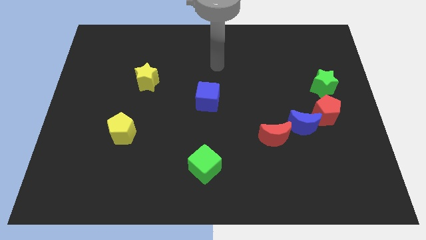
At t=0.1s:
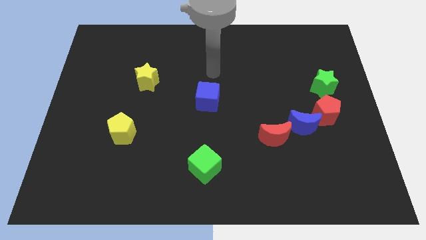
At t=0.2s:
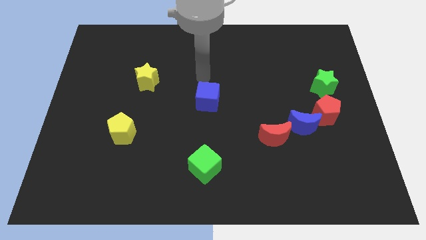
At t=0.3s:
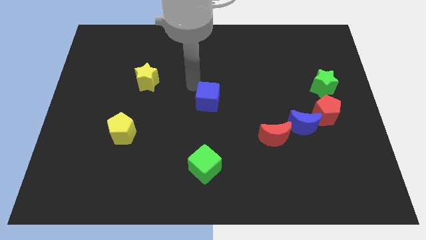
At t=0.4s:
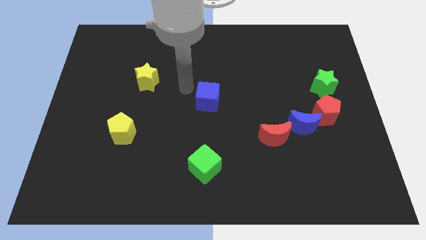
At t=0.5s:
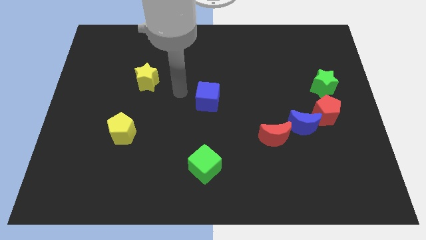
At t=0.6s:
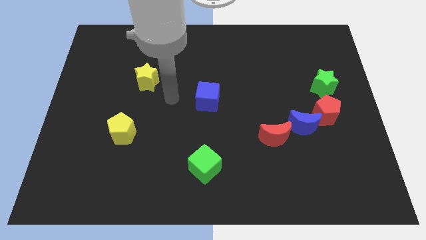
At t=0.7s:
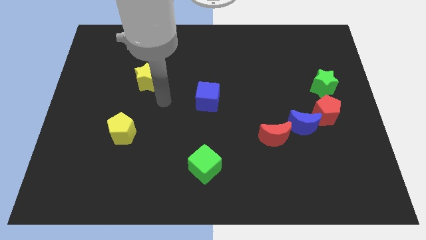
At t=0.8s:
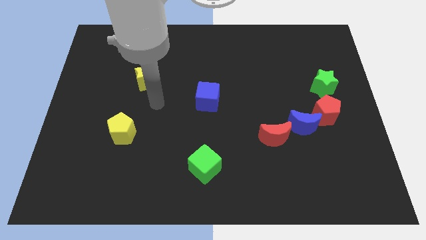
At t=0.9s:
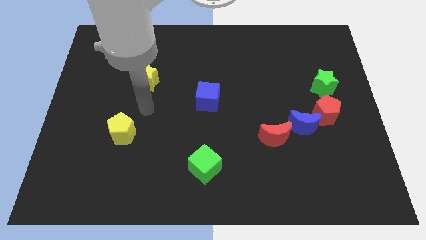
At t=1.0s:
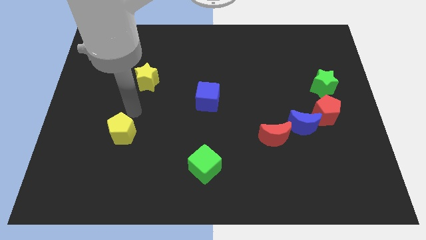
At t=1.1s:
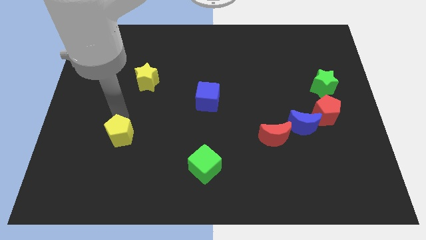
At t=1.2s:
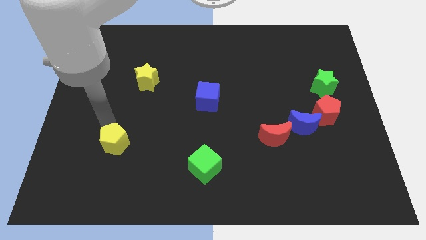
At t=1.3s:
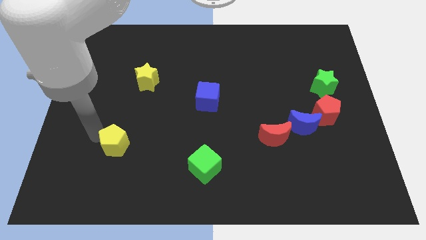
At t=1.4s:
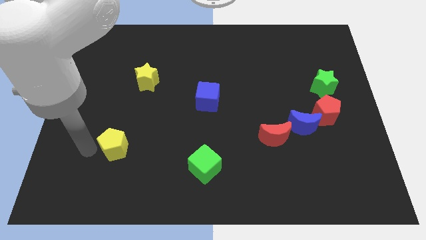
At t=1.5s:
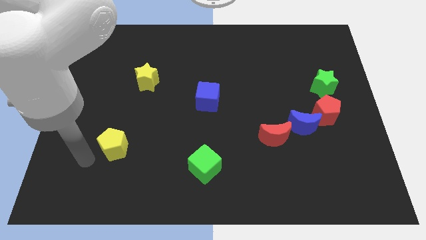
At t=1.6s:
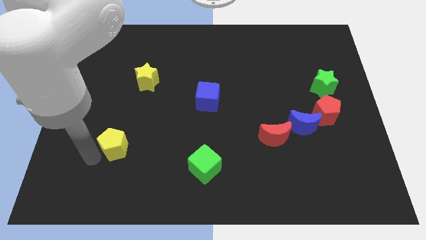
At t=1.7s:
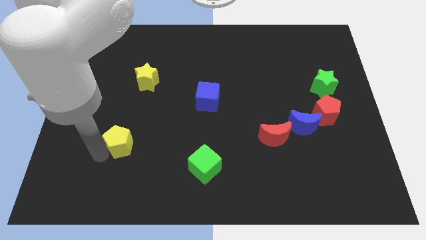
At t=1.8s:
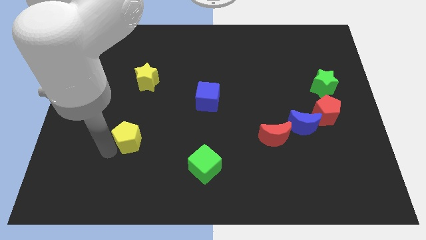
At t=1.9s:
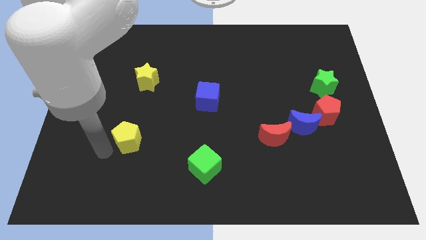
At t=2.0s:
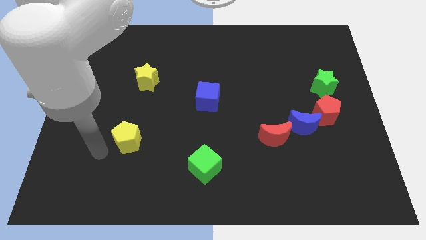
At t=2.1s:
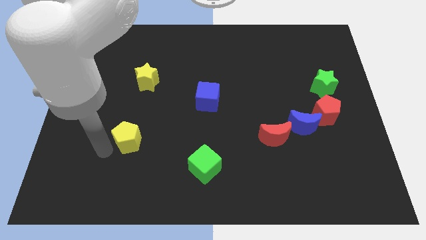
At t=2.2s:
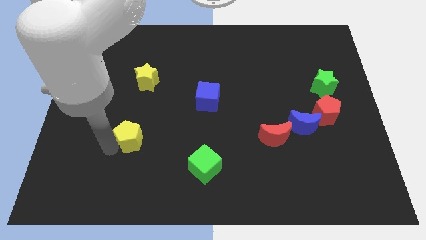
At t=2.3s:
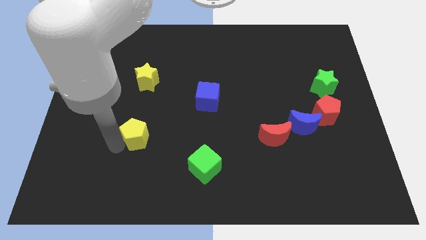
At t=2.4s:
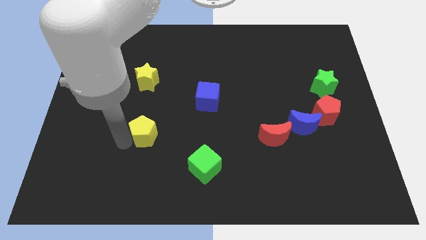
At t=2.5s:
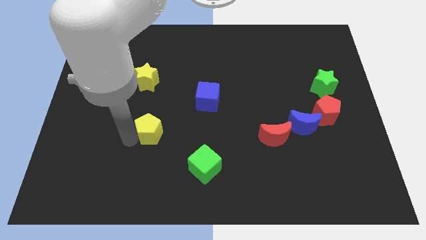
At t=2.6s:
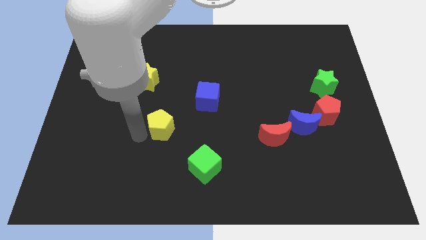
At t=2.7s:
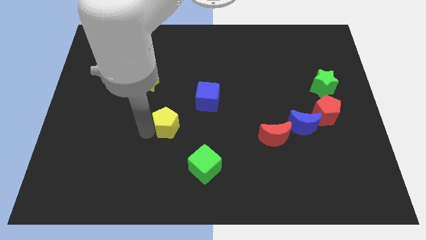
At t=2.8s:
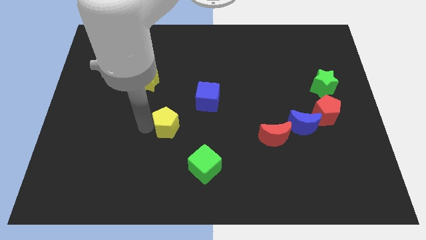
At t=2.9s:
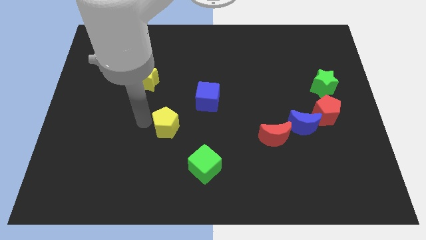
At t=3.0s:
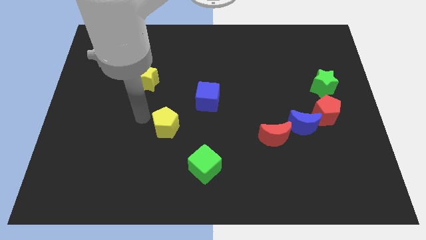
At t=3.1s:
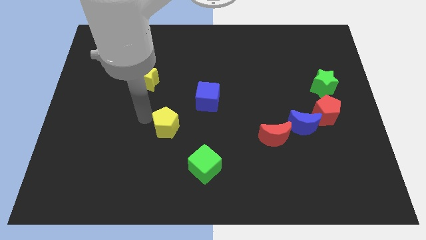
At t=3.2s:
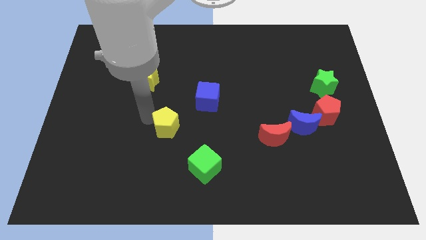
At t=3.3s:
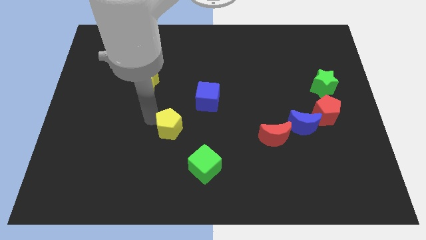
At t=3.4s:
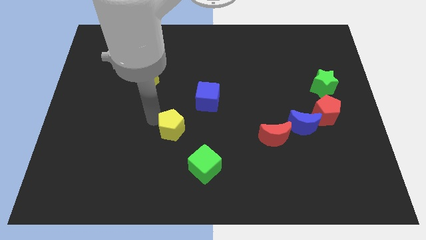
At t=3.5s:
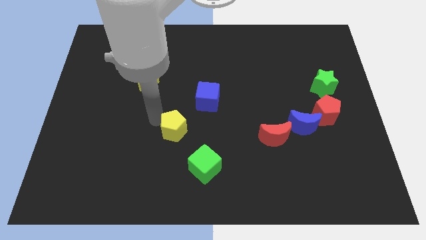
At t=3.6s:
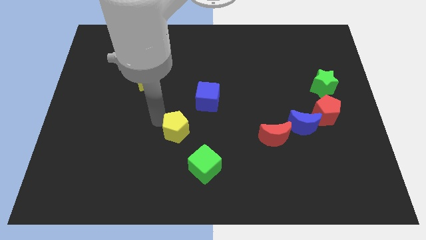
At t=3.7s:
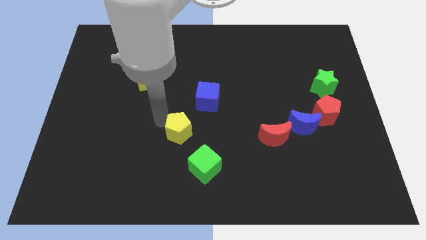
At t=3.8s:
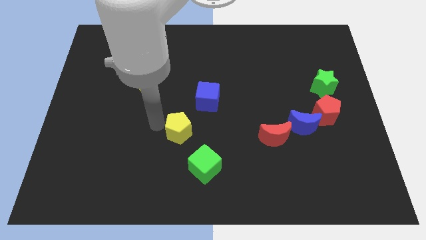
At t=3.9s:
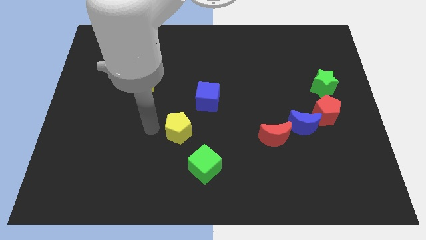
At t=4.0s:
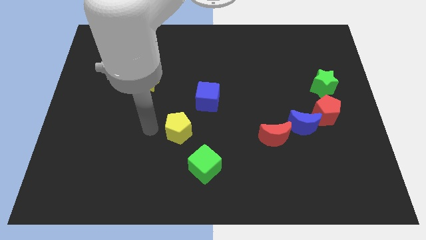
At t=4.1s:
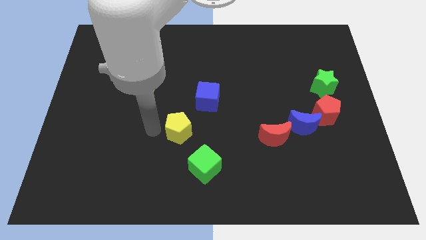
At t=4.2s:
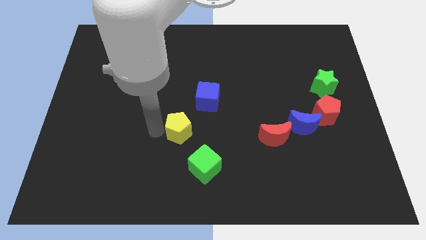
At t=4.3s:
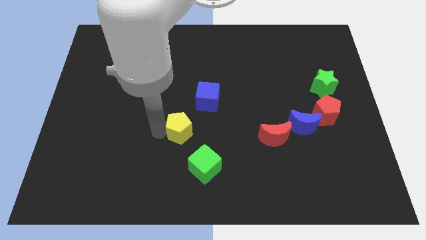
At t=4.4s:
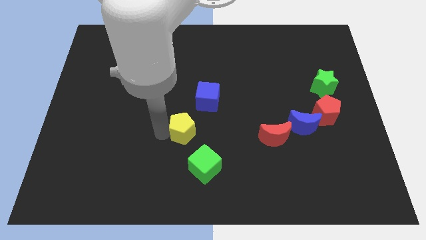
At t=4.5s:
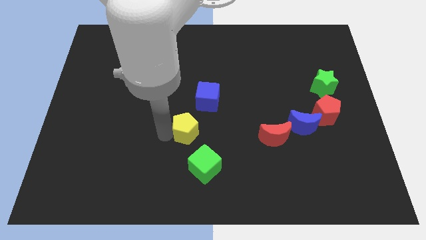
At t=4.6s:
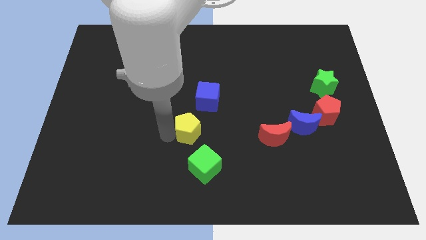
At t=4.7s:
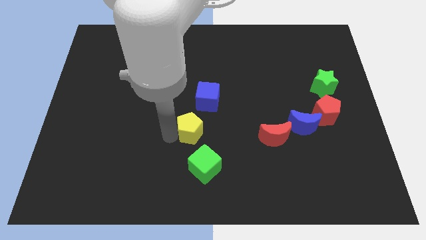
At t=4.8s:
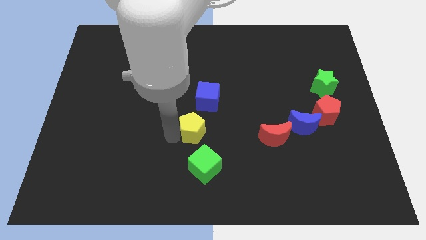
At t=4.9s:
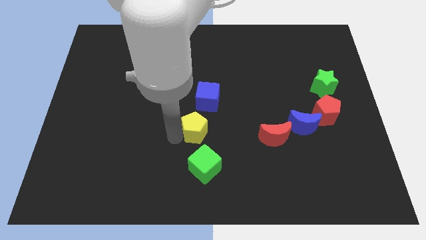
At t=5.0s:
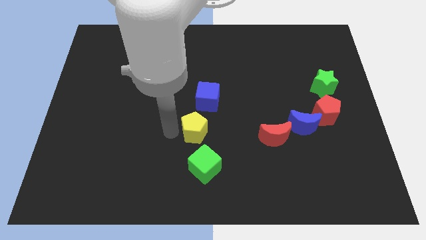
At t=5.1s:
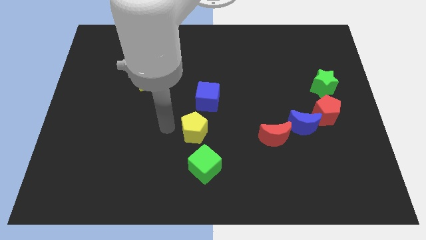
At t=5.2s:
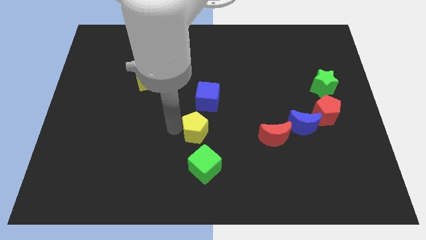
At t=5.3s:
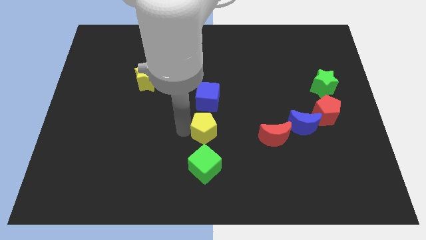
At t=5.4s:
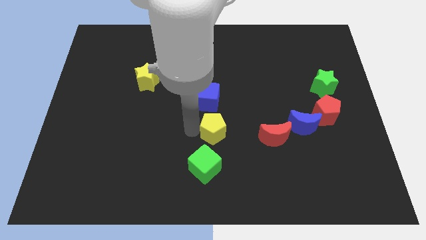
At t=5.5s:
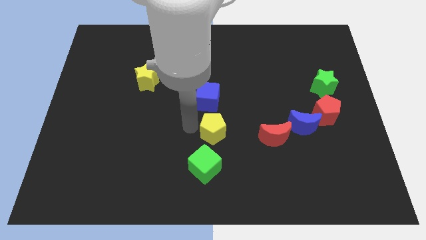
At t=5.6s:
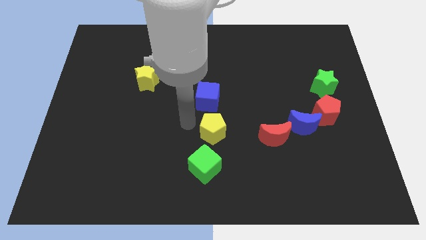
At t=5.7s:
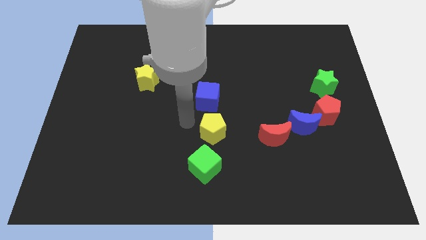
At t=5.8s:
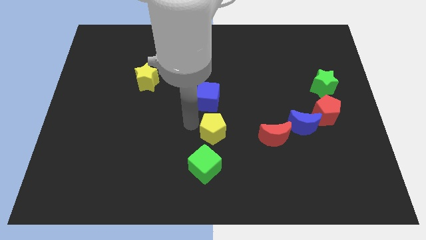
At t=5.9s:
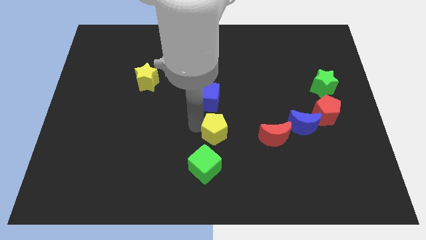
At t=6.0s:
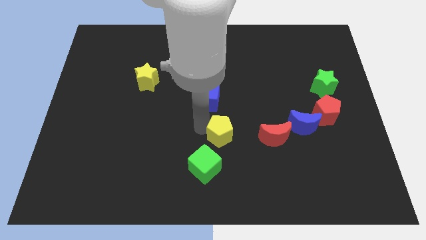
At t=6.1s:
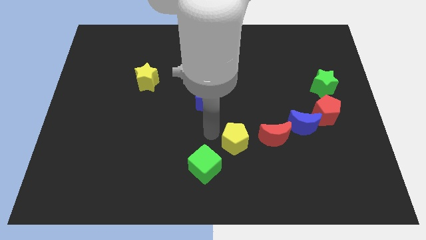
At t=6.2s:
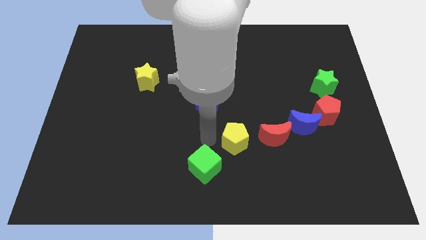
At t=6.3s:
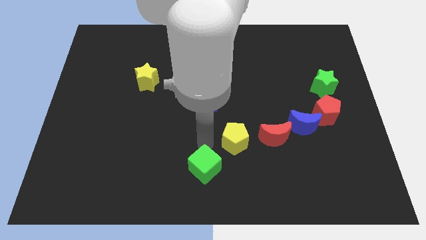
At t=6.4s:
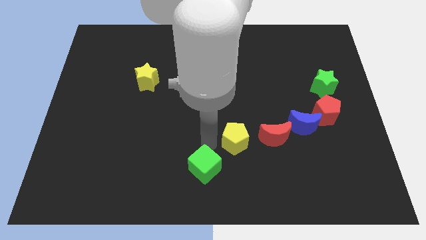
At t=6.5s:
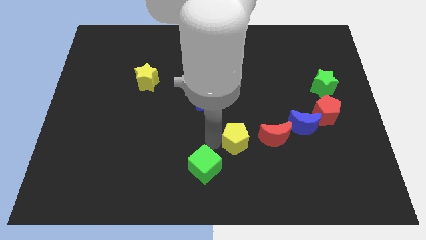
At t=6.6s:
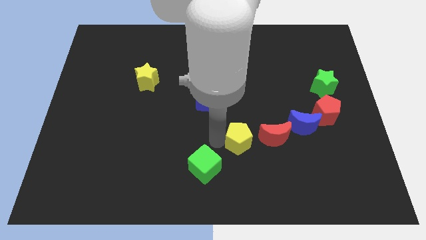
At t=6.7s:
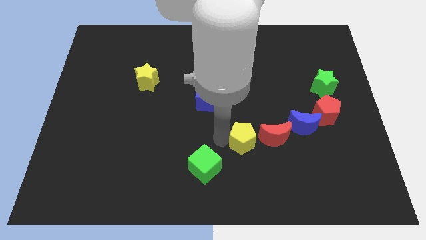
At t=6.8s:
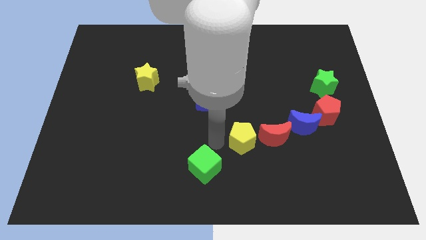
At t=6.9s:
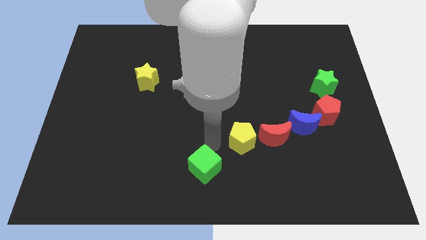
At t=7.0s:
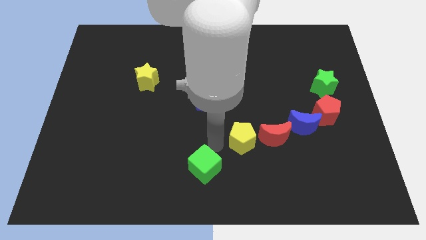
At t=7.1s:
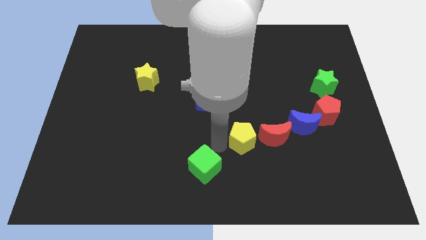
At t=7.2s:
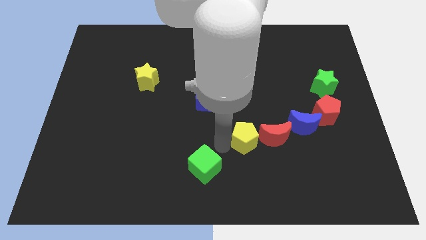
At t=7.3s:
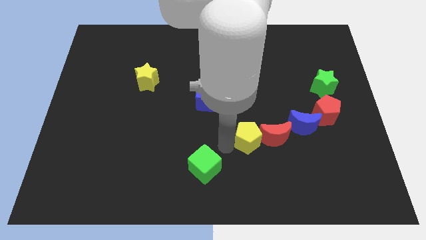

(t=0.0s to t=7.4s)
move the yellow pentagon to the red moon
